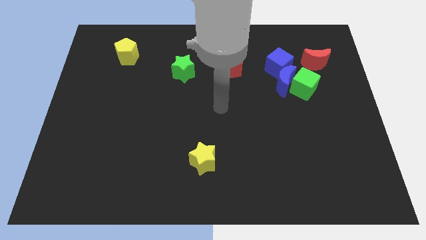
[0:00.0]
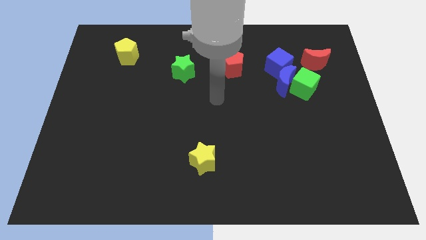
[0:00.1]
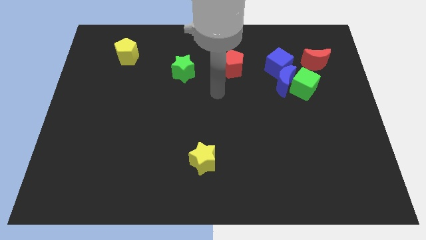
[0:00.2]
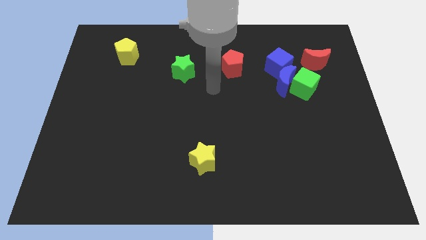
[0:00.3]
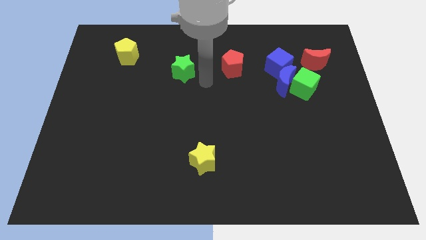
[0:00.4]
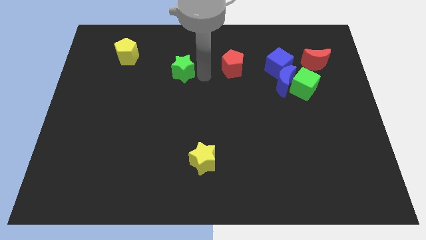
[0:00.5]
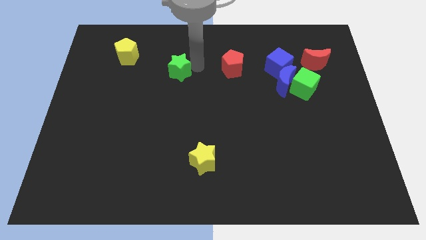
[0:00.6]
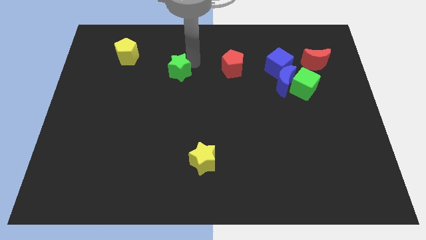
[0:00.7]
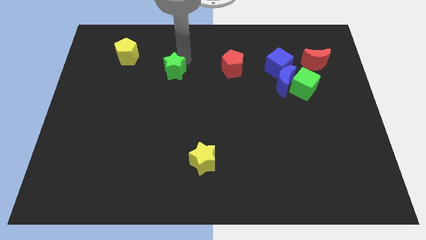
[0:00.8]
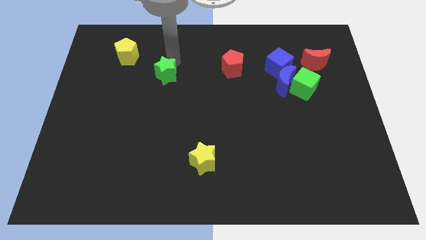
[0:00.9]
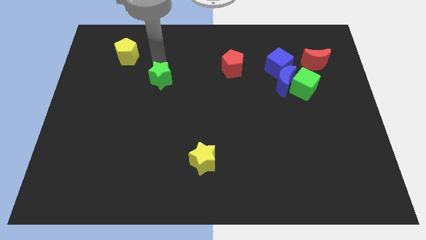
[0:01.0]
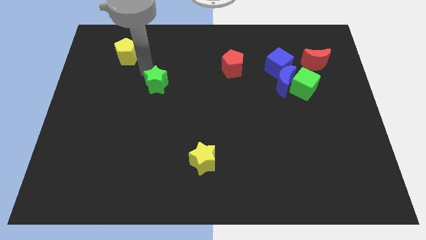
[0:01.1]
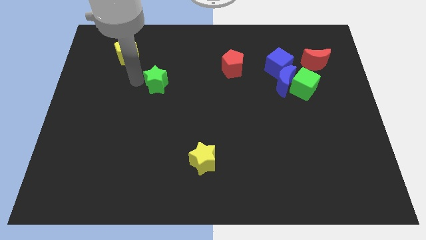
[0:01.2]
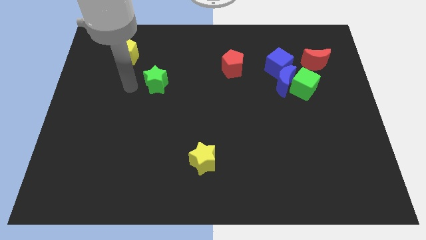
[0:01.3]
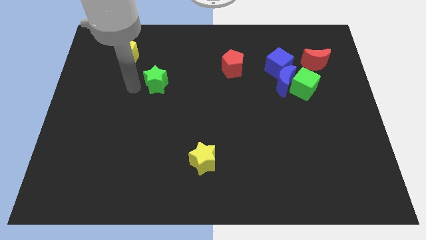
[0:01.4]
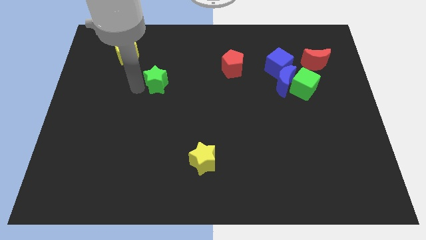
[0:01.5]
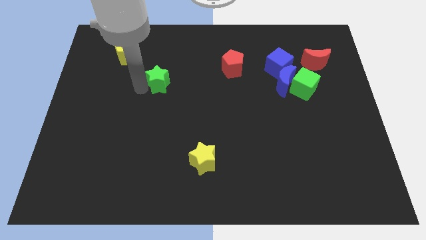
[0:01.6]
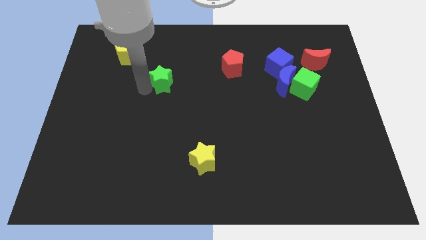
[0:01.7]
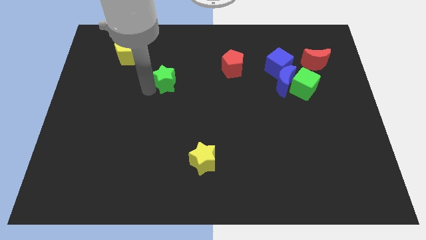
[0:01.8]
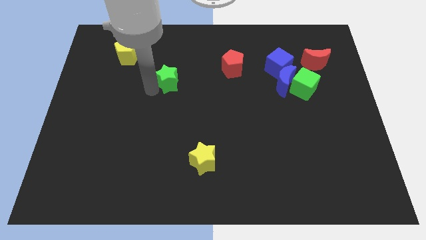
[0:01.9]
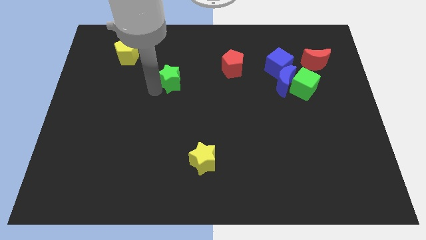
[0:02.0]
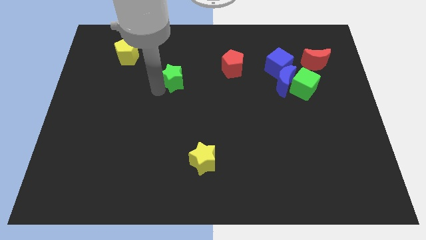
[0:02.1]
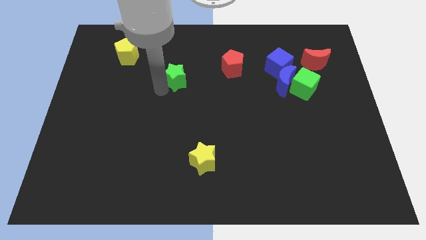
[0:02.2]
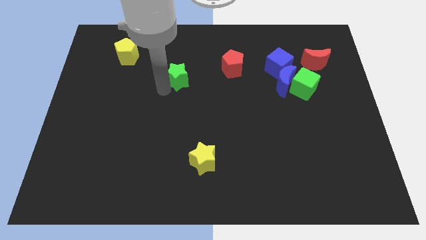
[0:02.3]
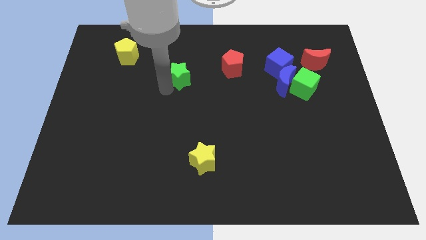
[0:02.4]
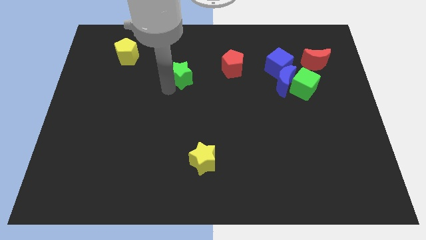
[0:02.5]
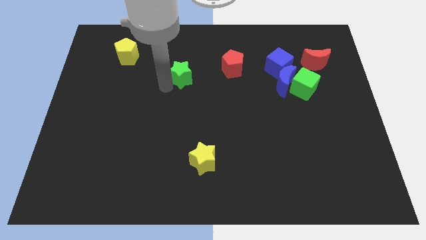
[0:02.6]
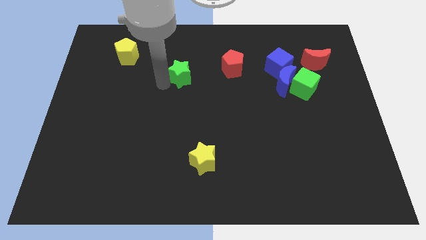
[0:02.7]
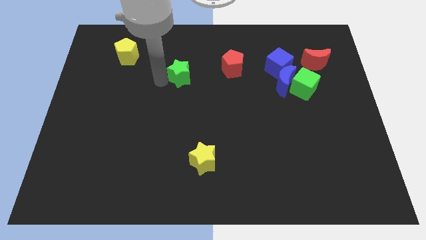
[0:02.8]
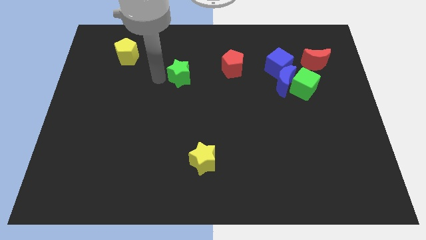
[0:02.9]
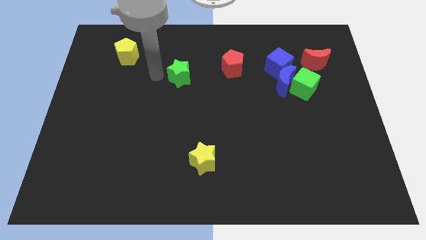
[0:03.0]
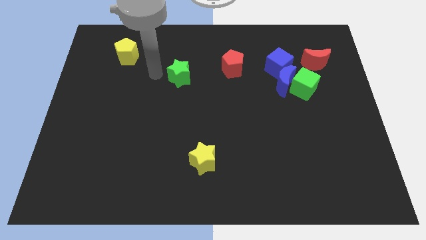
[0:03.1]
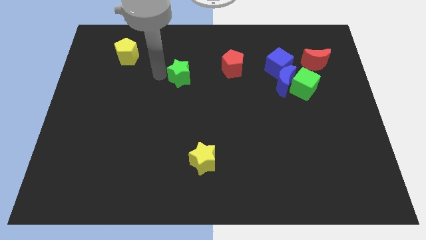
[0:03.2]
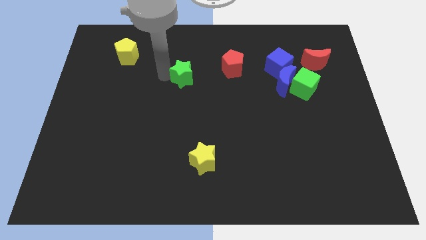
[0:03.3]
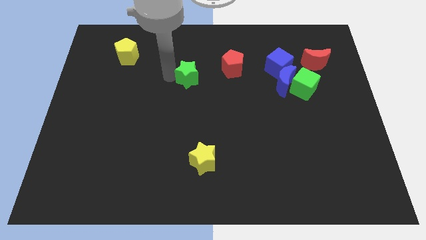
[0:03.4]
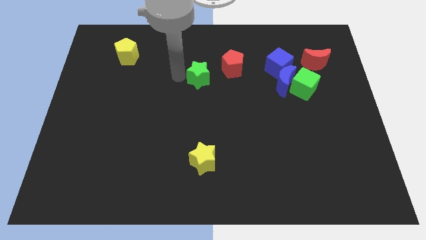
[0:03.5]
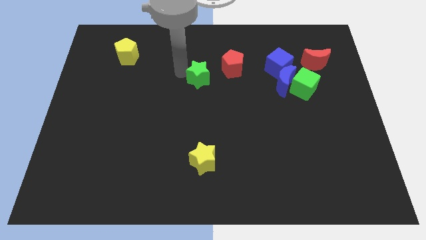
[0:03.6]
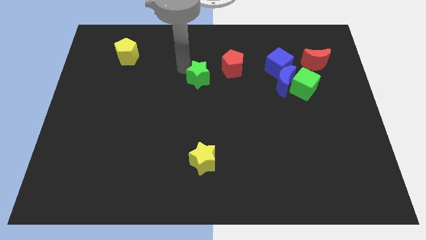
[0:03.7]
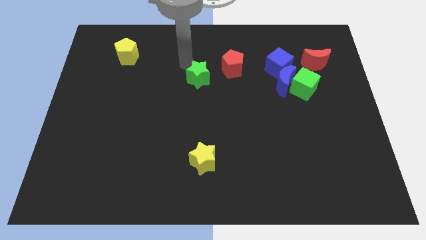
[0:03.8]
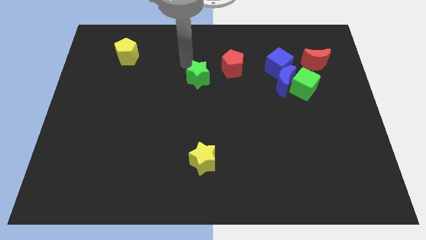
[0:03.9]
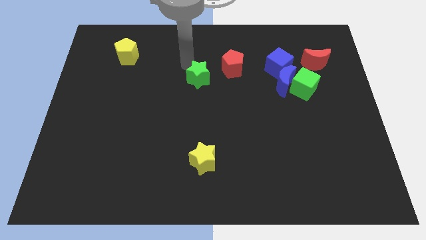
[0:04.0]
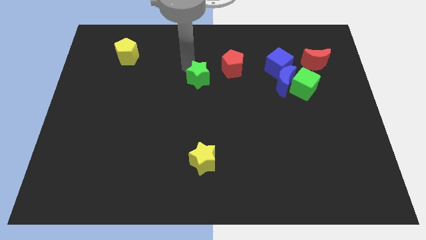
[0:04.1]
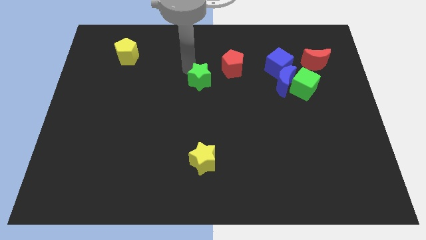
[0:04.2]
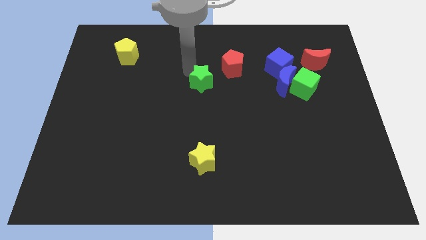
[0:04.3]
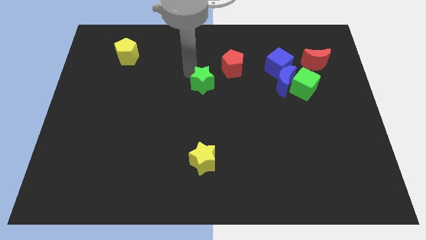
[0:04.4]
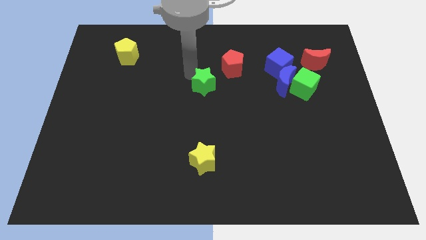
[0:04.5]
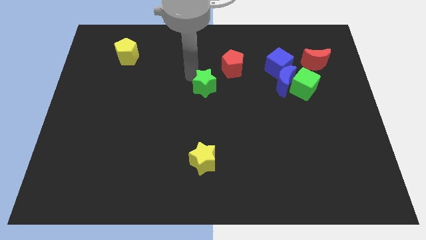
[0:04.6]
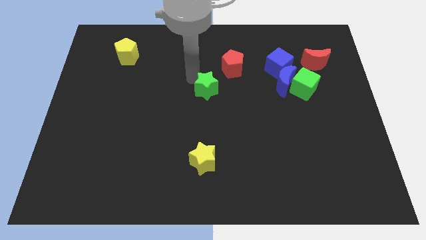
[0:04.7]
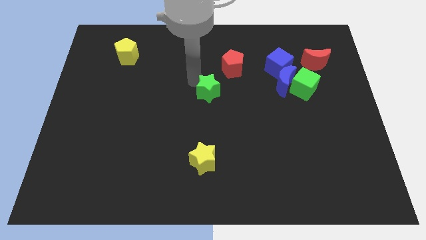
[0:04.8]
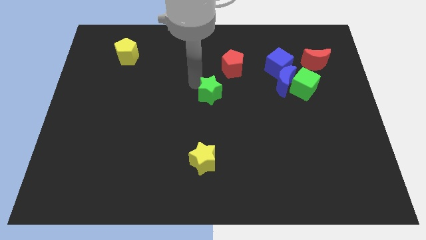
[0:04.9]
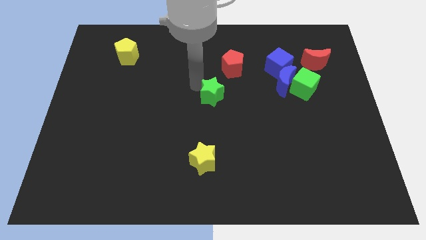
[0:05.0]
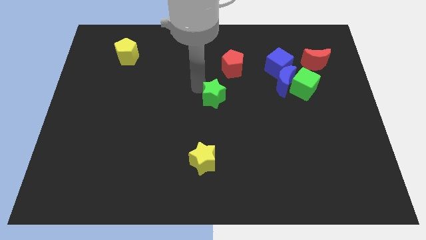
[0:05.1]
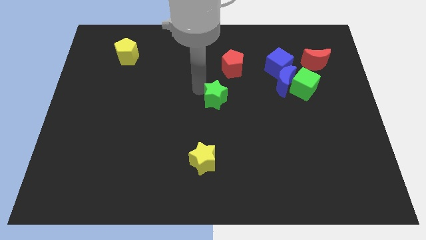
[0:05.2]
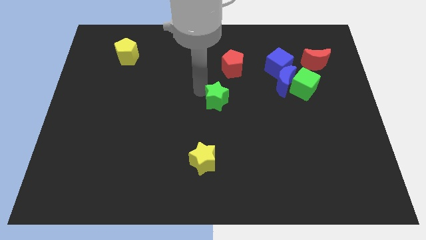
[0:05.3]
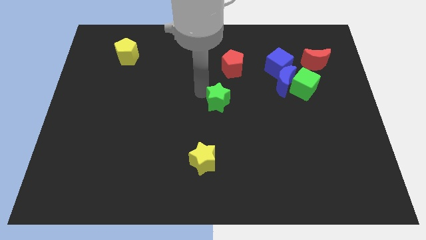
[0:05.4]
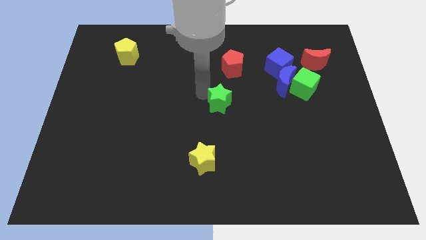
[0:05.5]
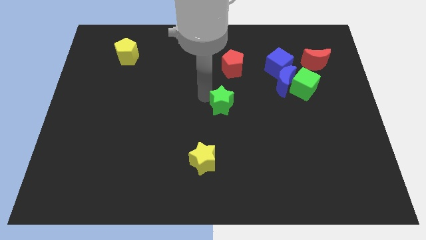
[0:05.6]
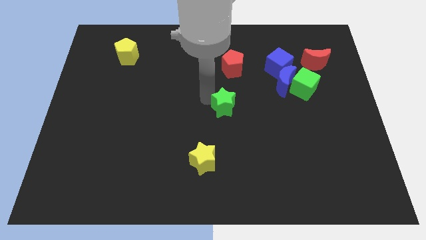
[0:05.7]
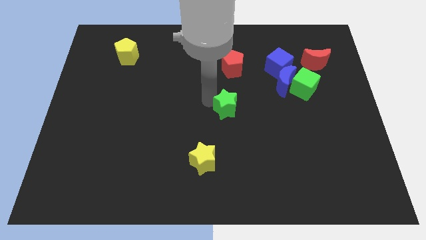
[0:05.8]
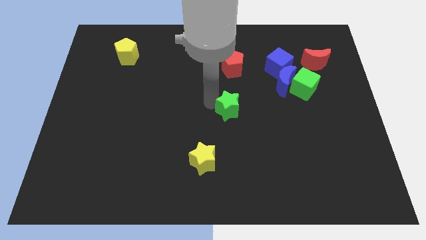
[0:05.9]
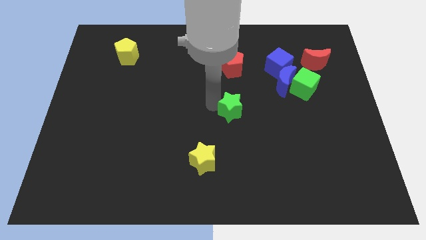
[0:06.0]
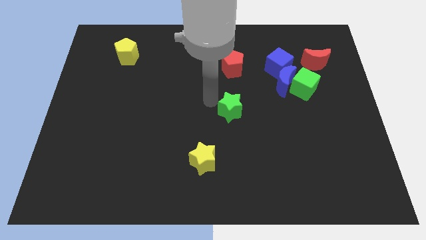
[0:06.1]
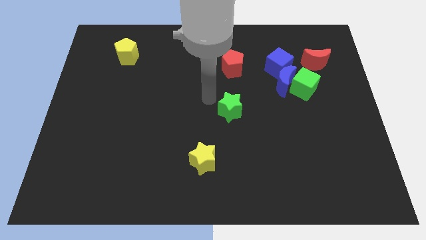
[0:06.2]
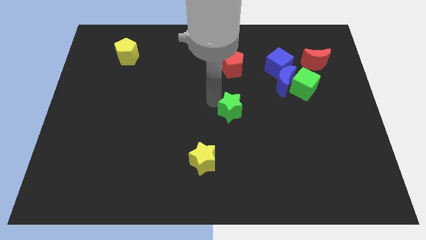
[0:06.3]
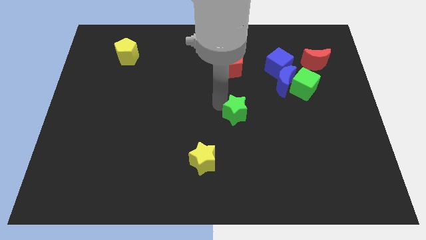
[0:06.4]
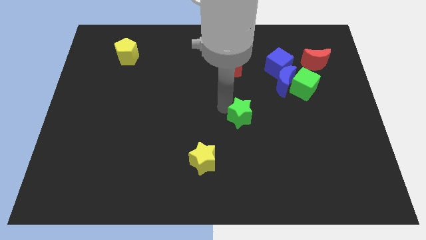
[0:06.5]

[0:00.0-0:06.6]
move the green star diagonally down and to the right

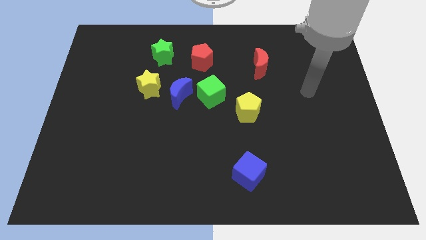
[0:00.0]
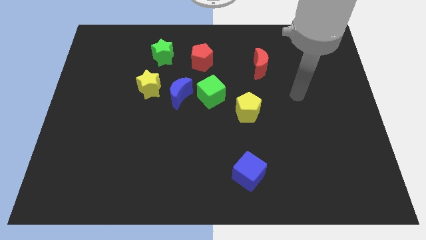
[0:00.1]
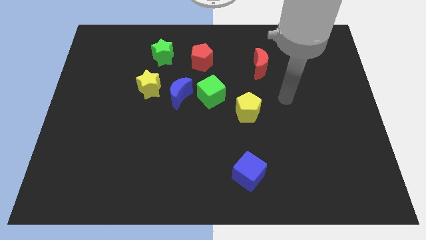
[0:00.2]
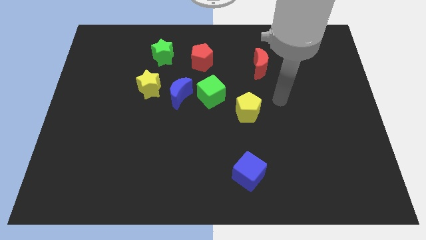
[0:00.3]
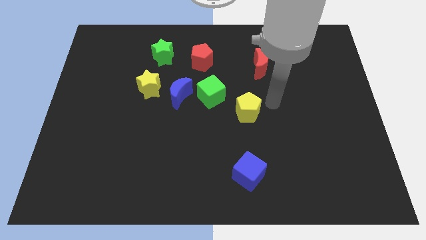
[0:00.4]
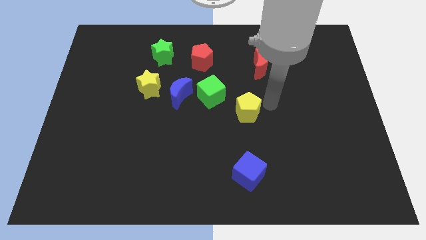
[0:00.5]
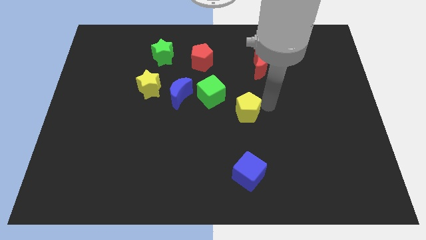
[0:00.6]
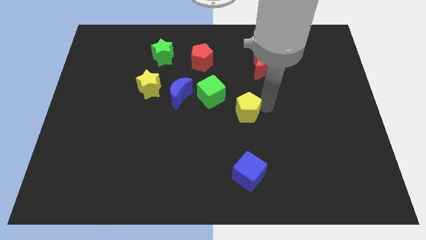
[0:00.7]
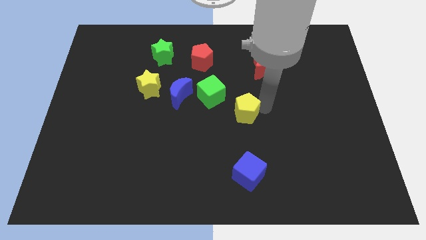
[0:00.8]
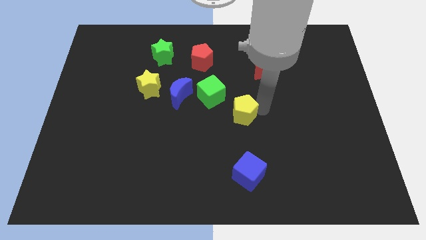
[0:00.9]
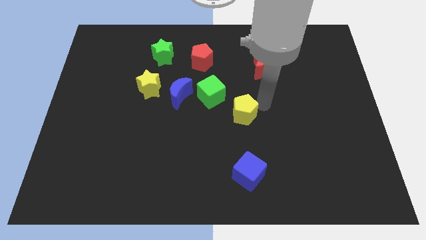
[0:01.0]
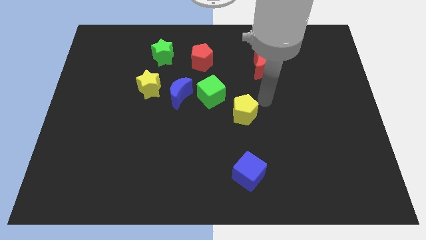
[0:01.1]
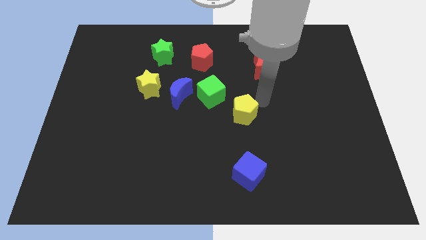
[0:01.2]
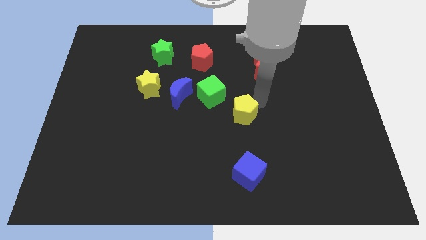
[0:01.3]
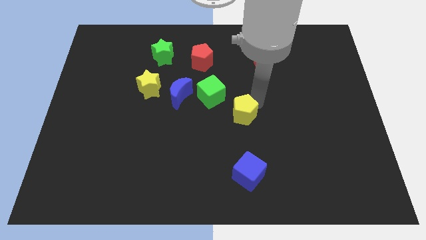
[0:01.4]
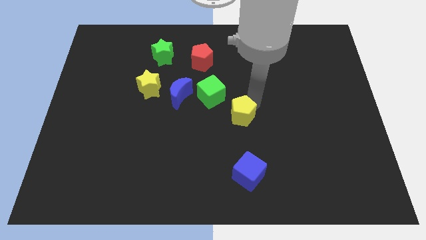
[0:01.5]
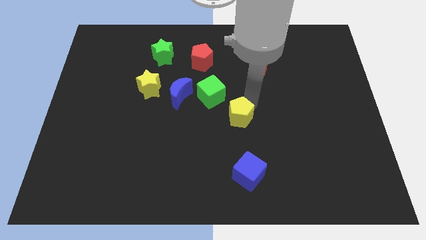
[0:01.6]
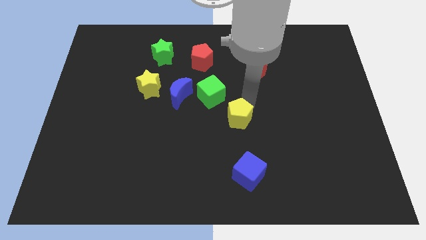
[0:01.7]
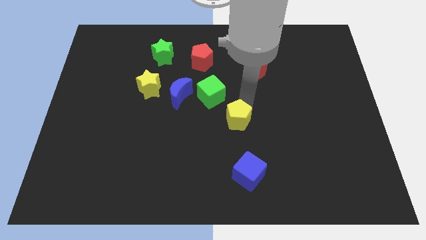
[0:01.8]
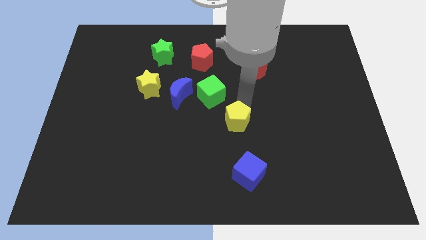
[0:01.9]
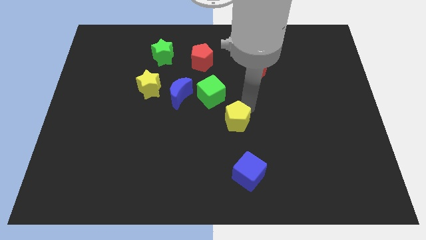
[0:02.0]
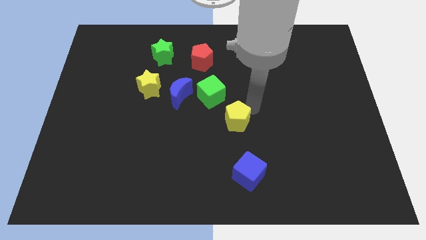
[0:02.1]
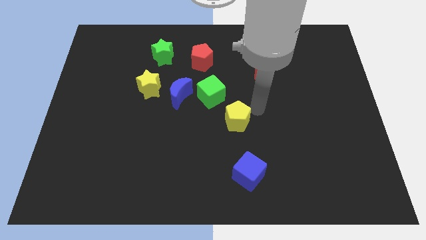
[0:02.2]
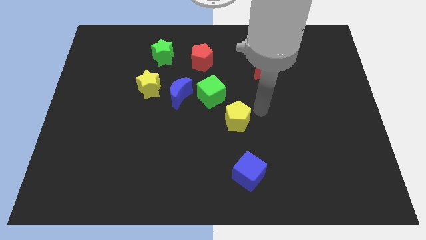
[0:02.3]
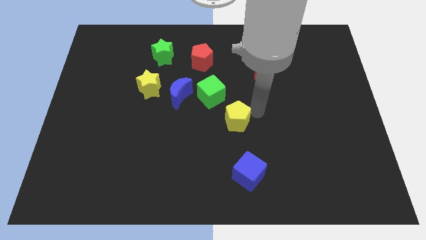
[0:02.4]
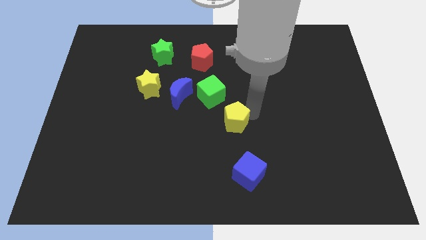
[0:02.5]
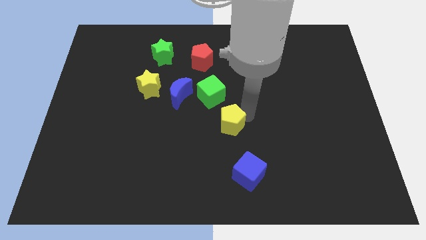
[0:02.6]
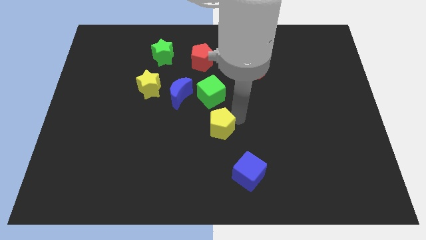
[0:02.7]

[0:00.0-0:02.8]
move the yellow pentagon a little diagonally down and to the left
